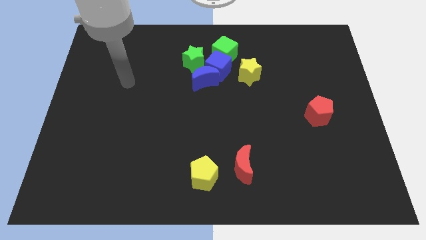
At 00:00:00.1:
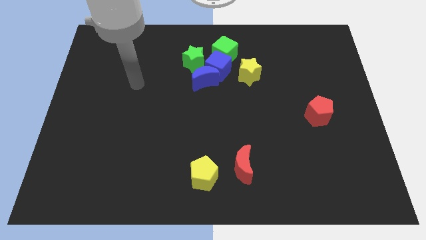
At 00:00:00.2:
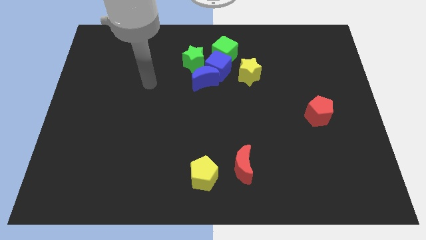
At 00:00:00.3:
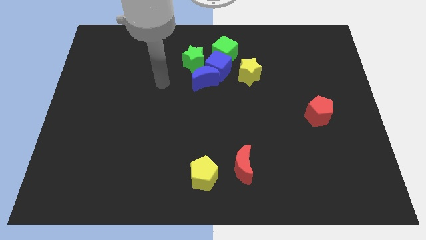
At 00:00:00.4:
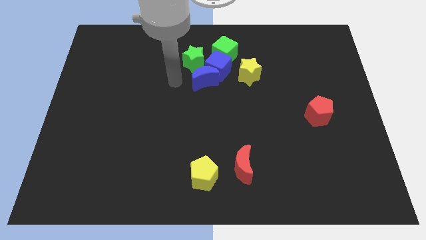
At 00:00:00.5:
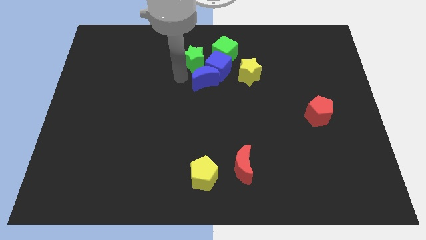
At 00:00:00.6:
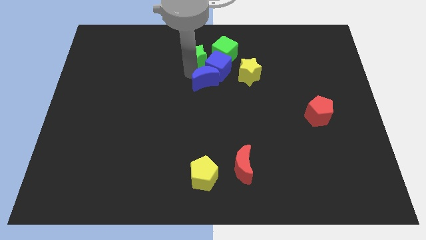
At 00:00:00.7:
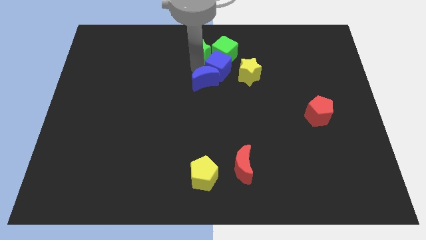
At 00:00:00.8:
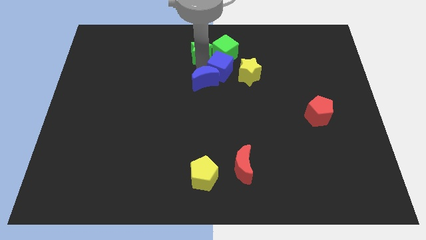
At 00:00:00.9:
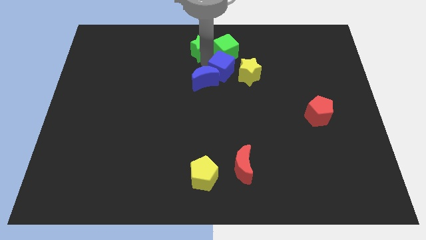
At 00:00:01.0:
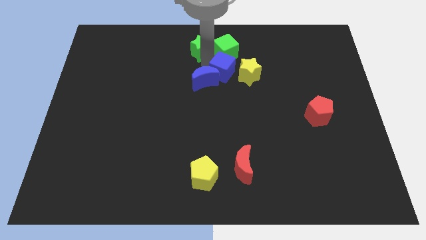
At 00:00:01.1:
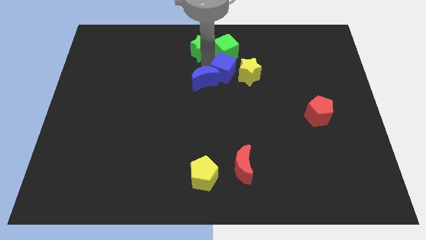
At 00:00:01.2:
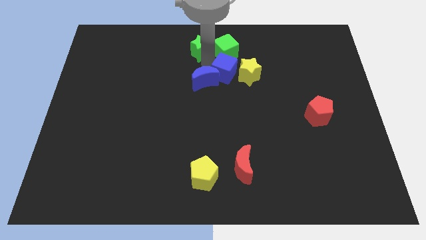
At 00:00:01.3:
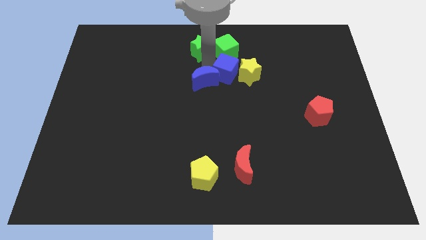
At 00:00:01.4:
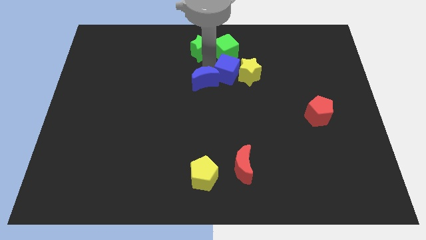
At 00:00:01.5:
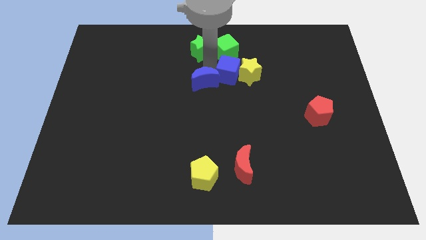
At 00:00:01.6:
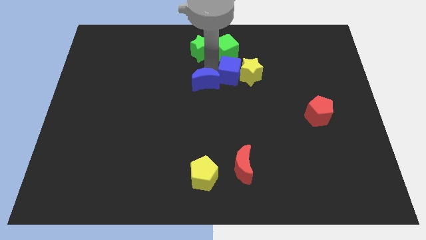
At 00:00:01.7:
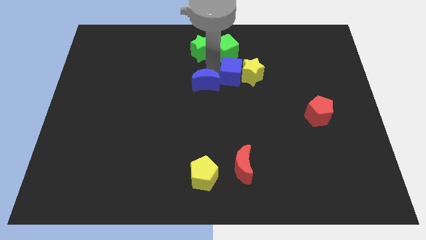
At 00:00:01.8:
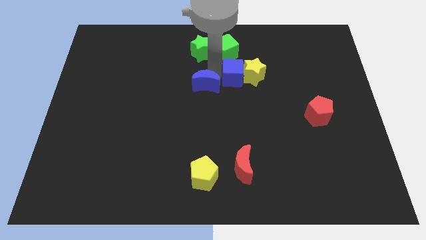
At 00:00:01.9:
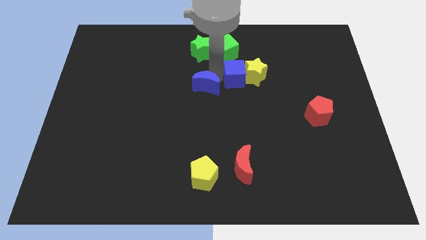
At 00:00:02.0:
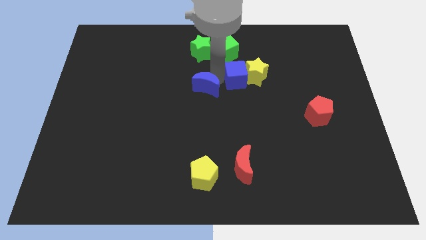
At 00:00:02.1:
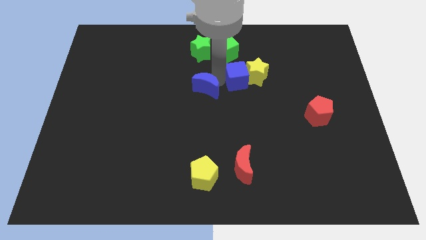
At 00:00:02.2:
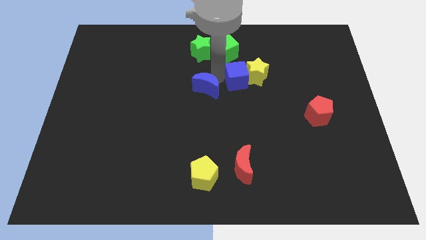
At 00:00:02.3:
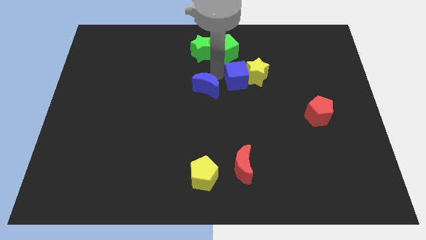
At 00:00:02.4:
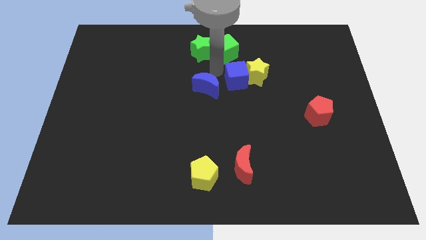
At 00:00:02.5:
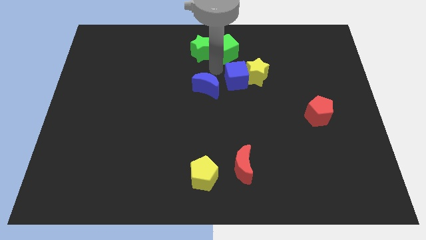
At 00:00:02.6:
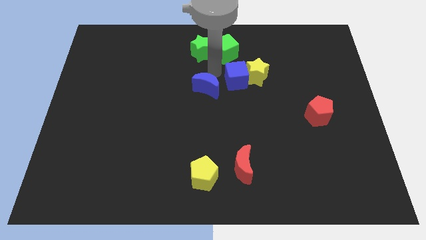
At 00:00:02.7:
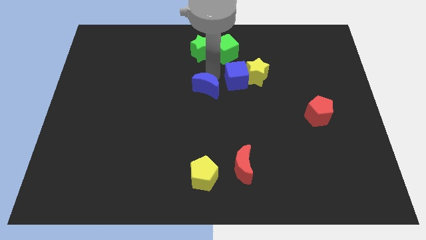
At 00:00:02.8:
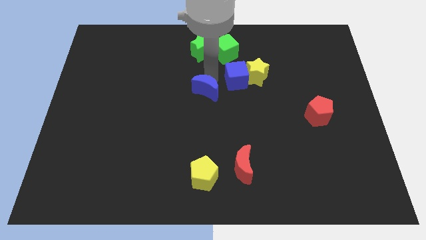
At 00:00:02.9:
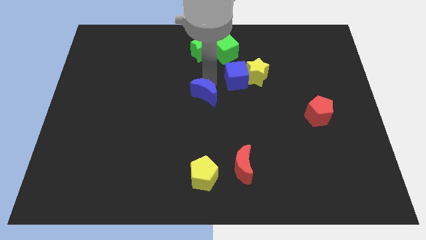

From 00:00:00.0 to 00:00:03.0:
separate the blue moon from the blue cube and green star
